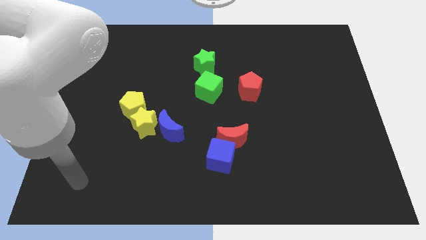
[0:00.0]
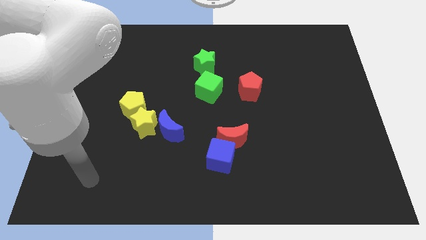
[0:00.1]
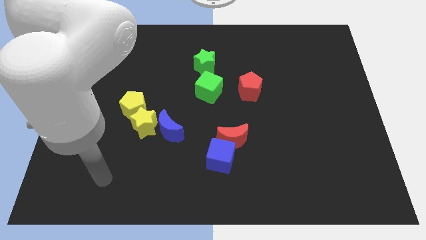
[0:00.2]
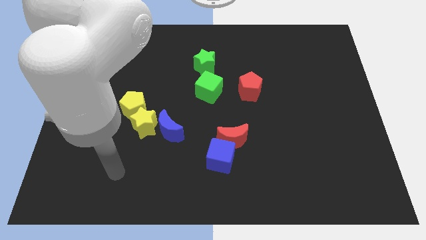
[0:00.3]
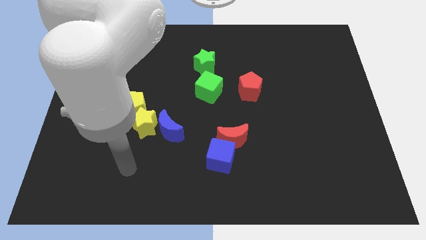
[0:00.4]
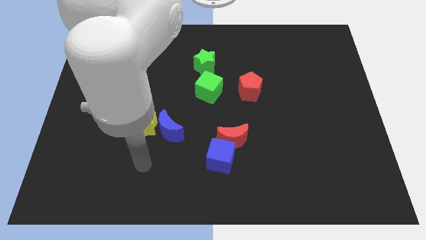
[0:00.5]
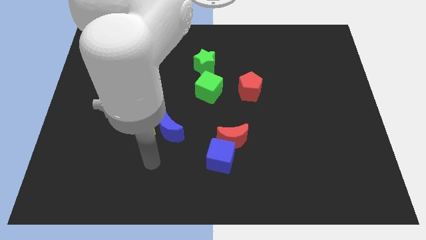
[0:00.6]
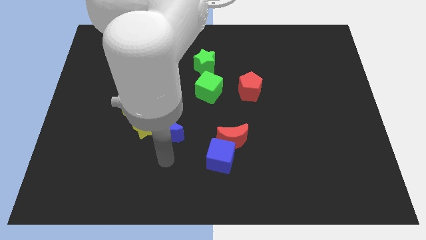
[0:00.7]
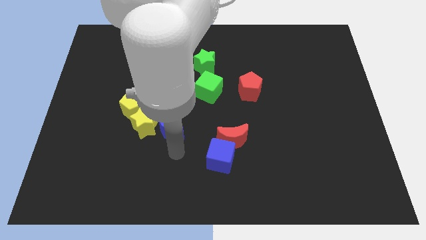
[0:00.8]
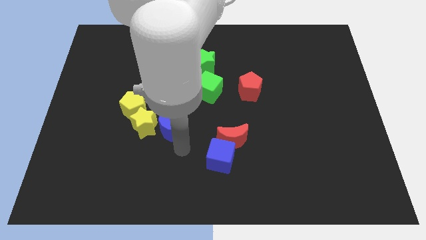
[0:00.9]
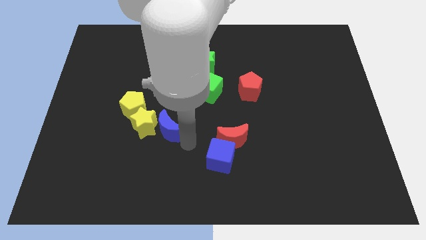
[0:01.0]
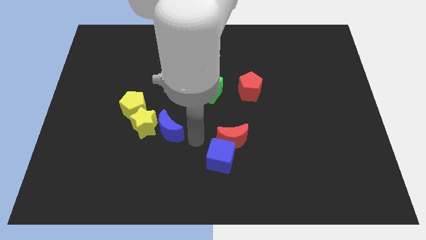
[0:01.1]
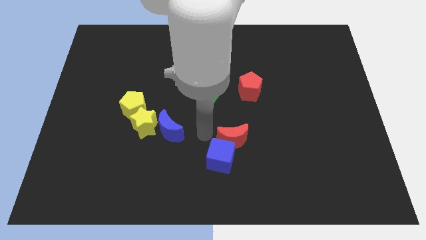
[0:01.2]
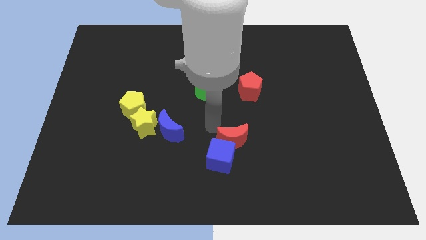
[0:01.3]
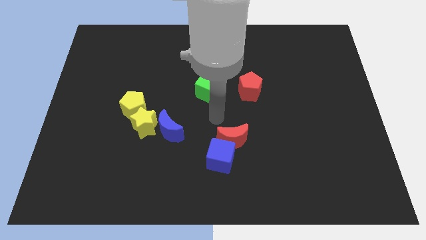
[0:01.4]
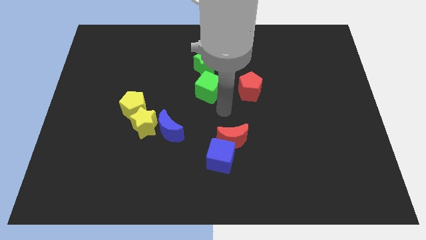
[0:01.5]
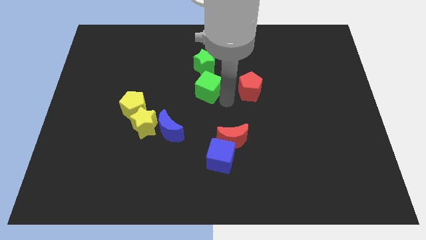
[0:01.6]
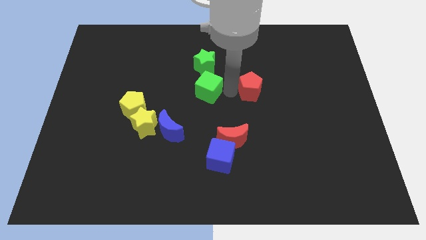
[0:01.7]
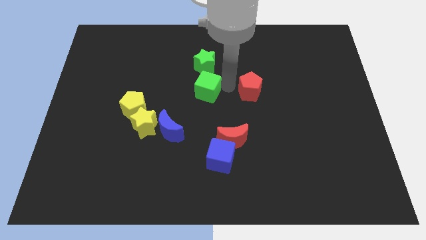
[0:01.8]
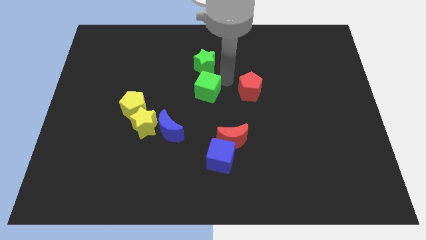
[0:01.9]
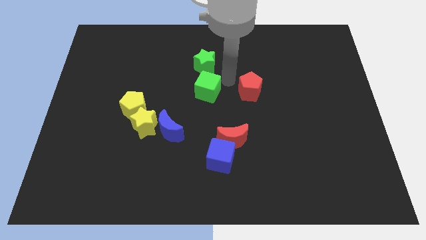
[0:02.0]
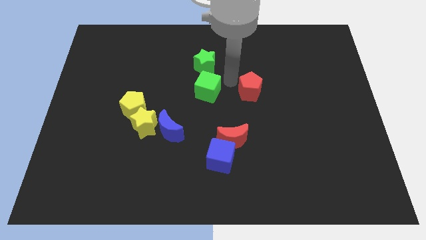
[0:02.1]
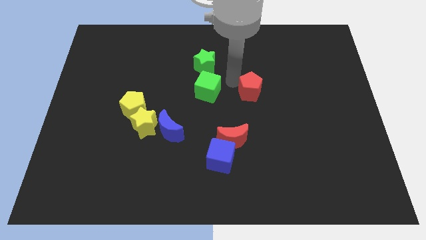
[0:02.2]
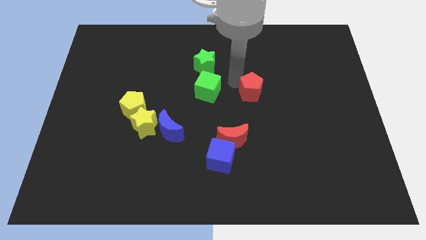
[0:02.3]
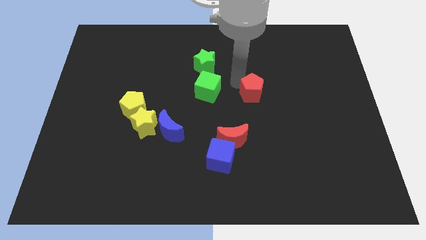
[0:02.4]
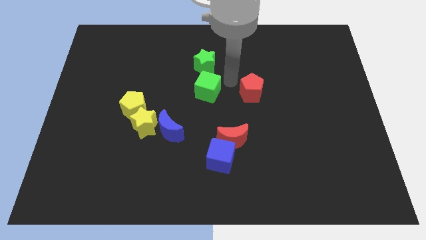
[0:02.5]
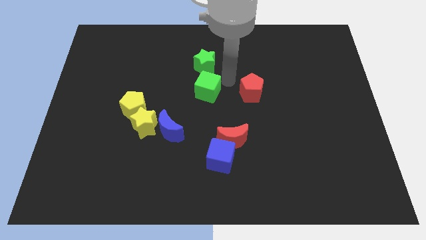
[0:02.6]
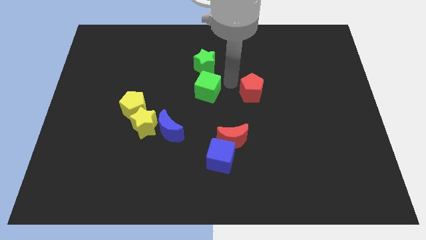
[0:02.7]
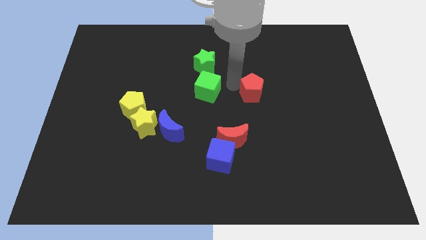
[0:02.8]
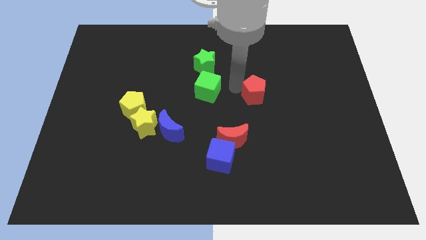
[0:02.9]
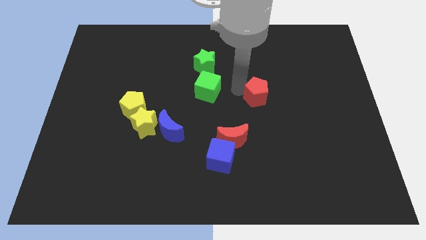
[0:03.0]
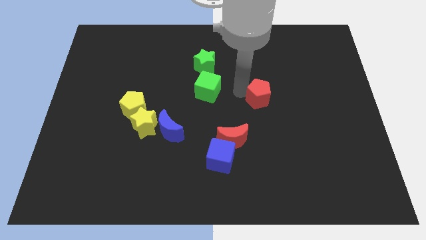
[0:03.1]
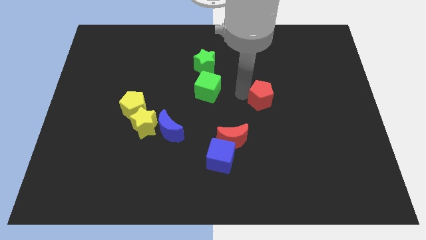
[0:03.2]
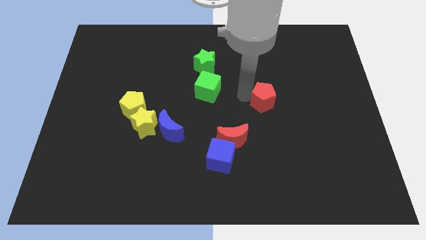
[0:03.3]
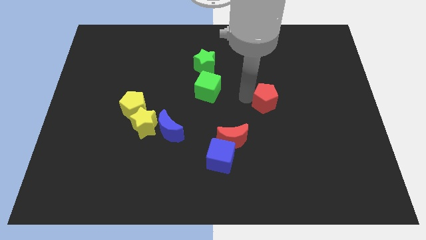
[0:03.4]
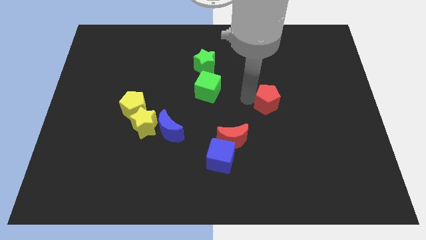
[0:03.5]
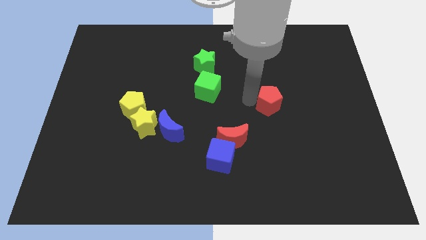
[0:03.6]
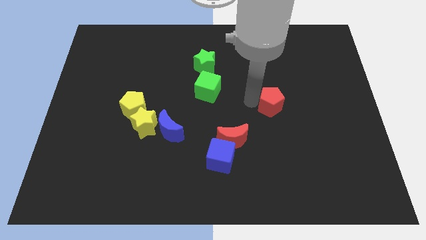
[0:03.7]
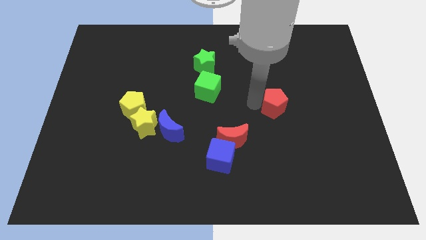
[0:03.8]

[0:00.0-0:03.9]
slightly push the red pentagon downwards and right diagonally

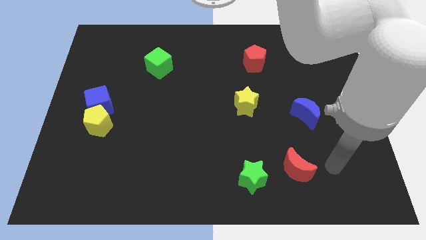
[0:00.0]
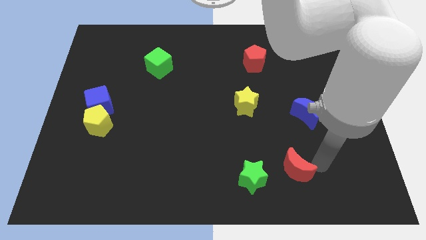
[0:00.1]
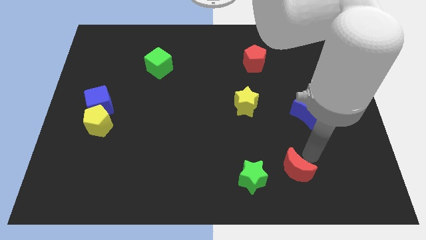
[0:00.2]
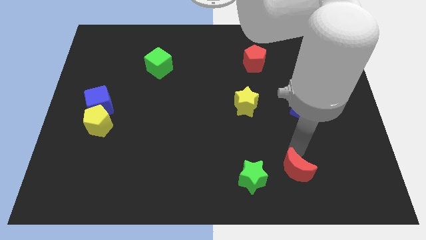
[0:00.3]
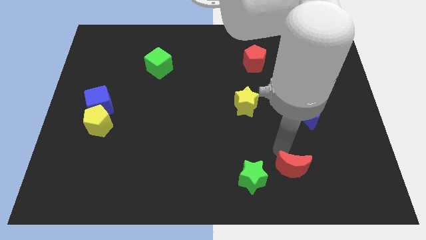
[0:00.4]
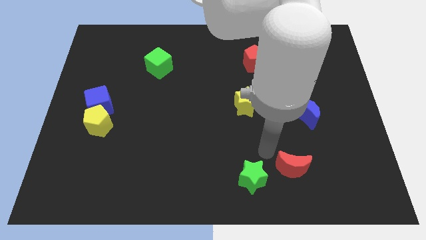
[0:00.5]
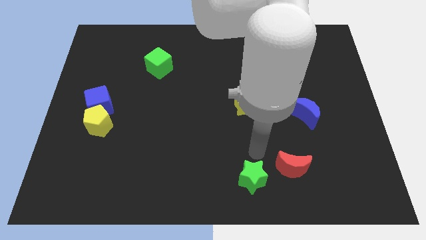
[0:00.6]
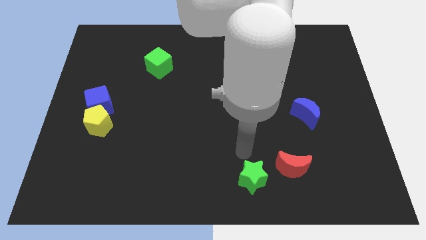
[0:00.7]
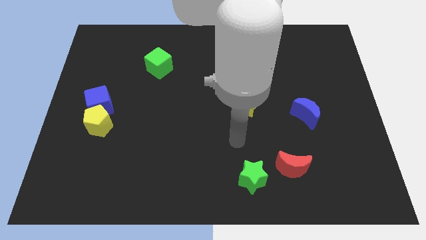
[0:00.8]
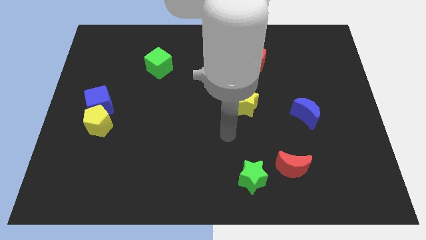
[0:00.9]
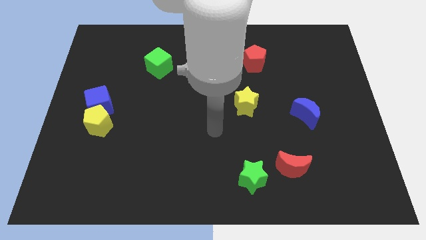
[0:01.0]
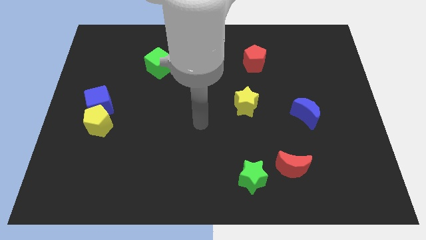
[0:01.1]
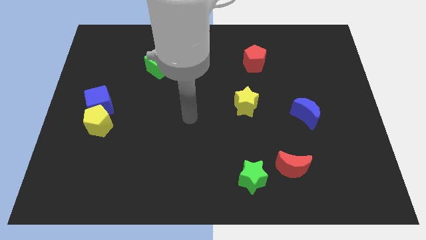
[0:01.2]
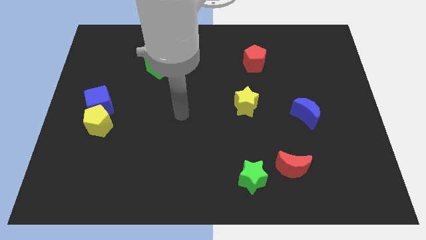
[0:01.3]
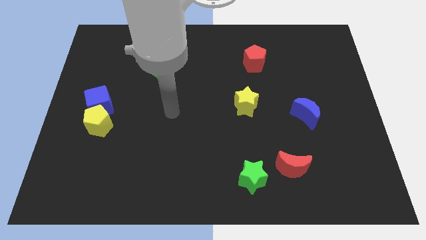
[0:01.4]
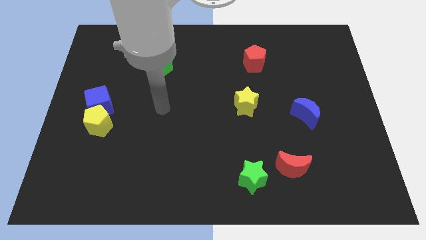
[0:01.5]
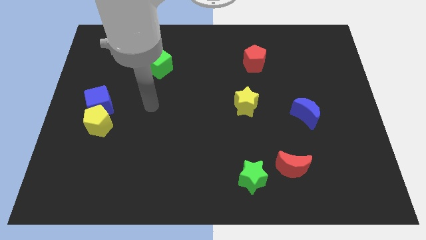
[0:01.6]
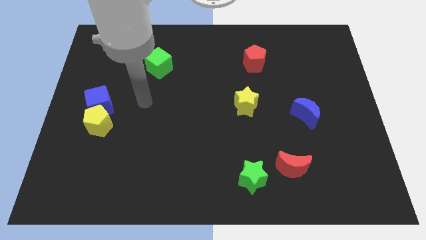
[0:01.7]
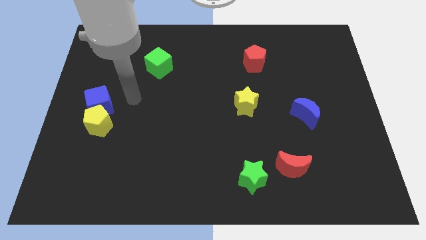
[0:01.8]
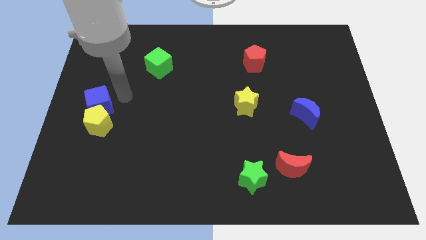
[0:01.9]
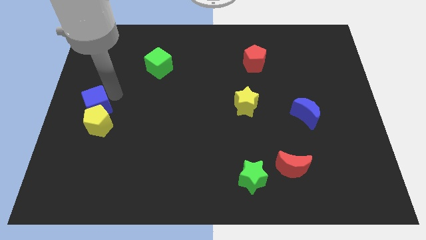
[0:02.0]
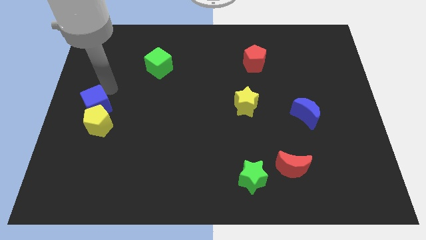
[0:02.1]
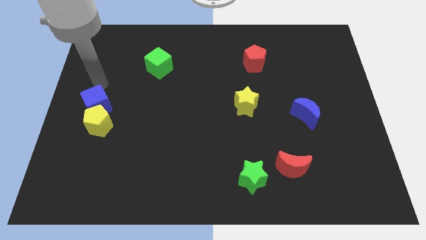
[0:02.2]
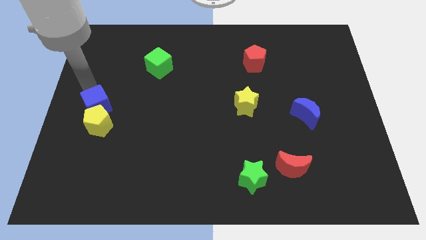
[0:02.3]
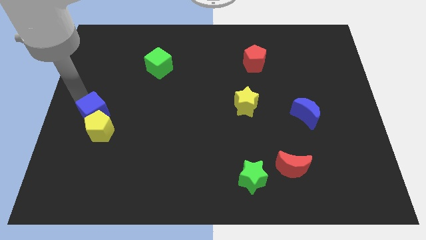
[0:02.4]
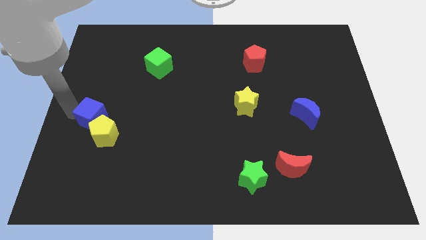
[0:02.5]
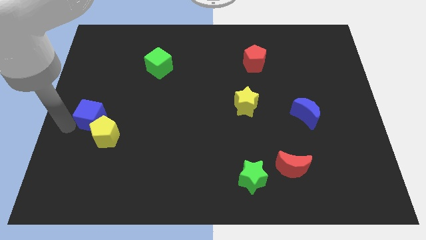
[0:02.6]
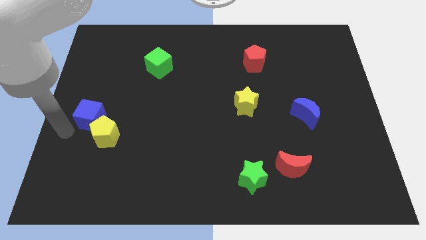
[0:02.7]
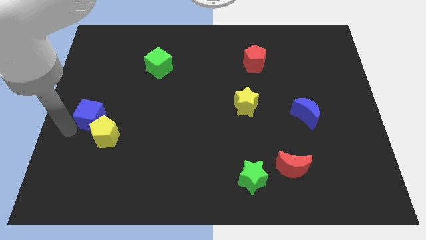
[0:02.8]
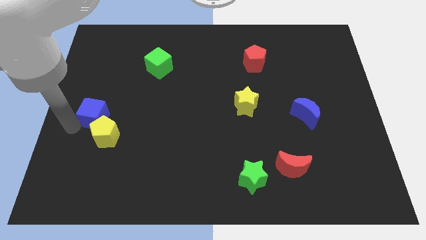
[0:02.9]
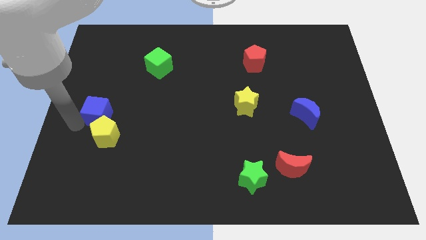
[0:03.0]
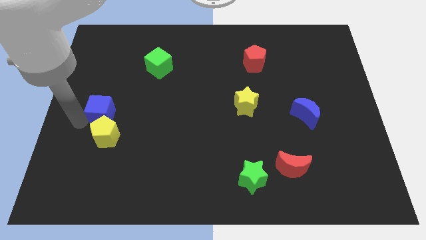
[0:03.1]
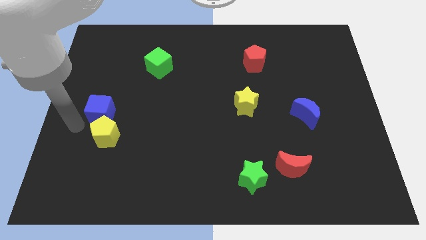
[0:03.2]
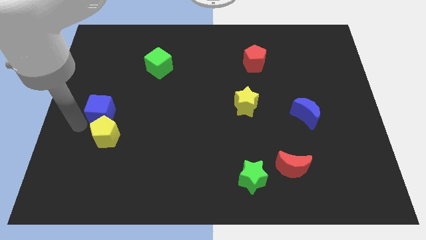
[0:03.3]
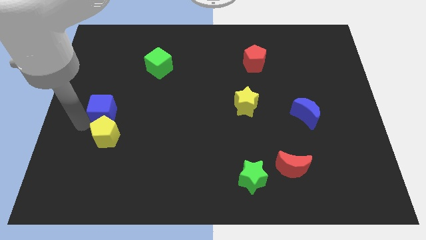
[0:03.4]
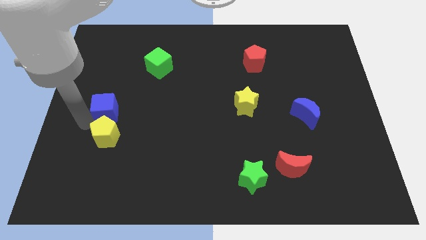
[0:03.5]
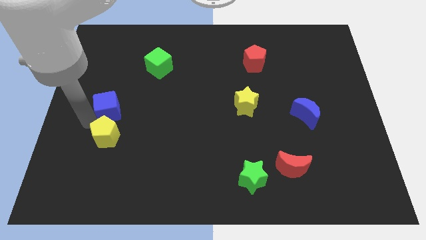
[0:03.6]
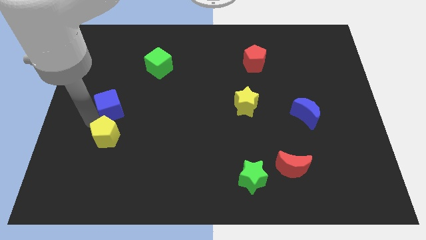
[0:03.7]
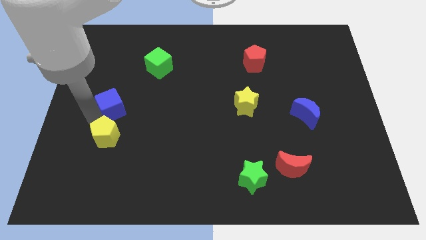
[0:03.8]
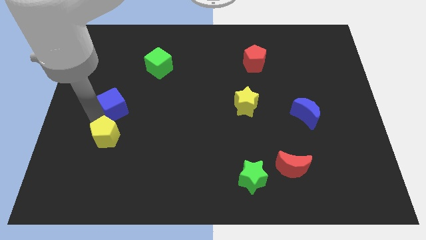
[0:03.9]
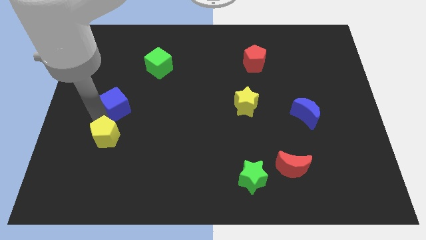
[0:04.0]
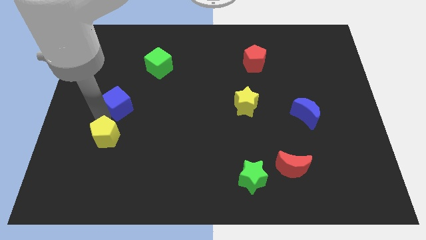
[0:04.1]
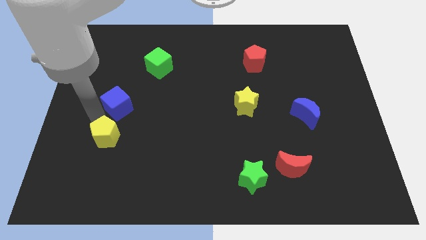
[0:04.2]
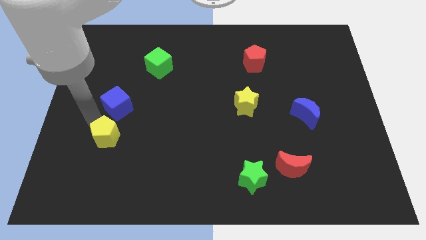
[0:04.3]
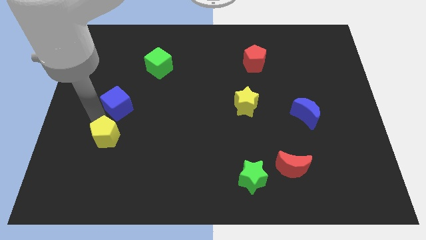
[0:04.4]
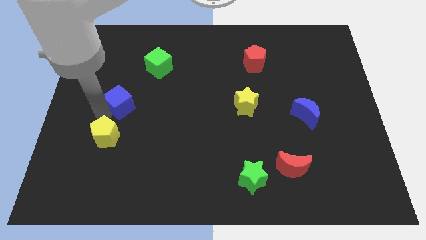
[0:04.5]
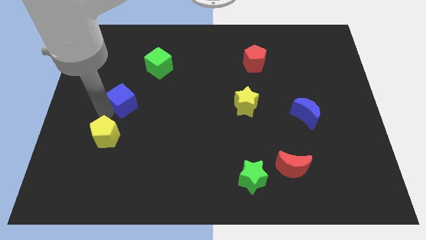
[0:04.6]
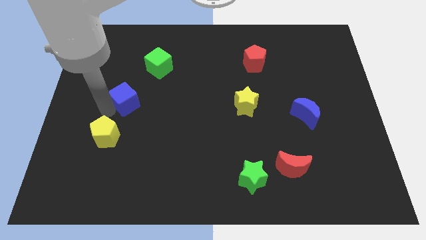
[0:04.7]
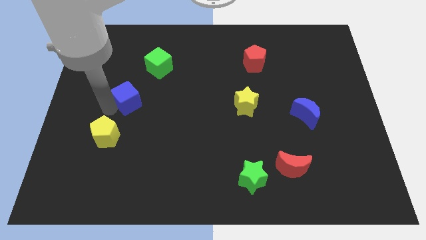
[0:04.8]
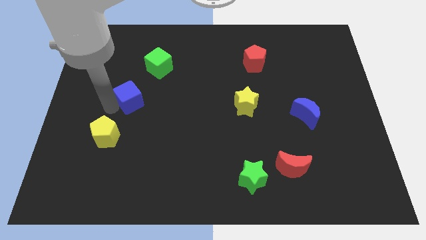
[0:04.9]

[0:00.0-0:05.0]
move the blue cube a little to the right
